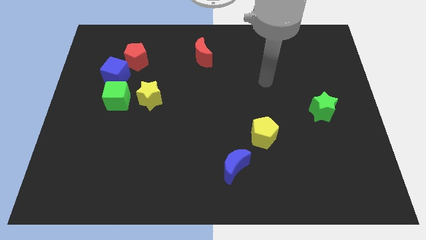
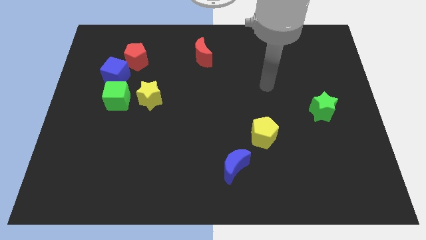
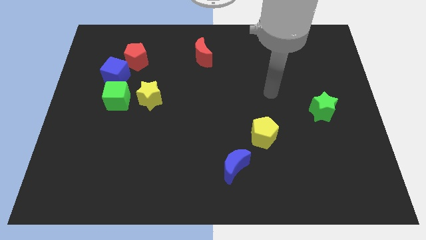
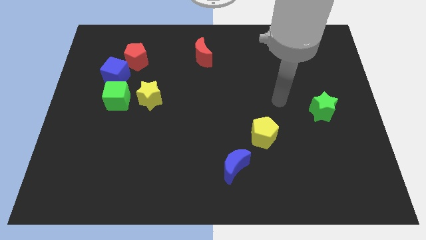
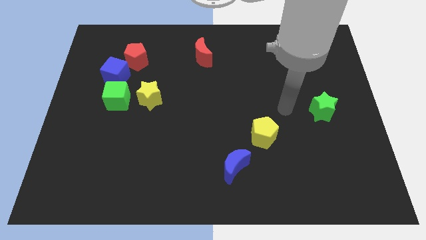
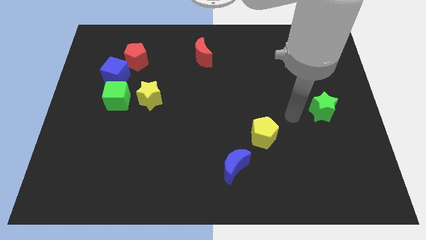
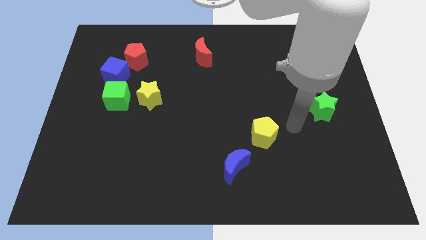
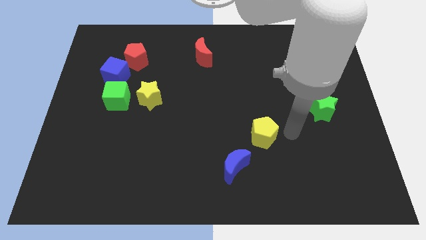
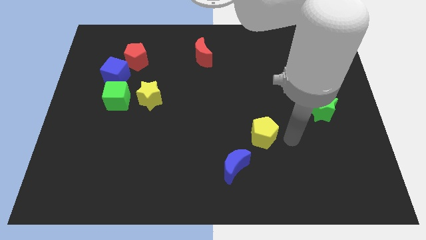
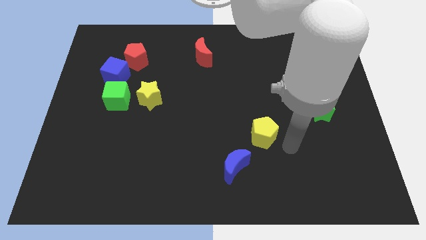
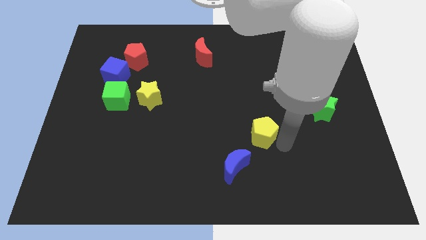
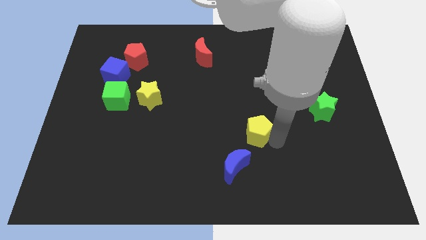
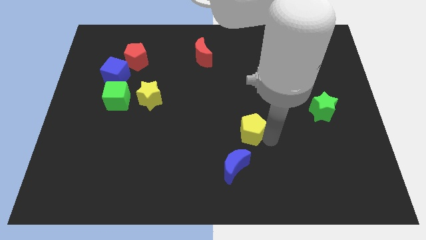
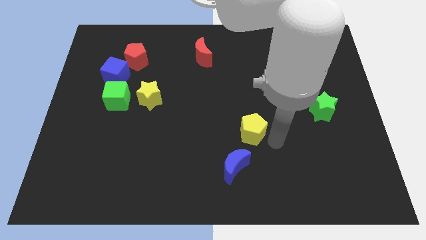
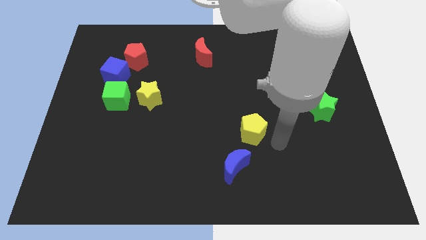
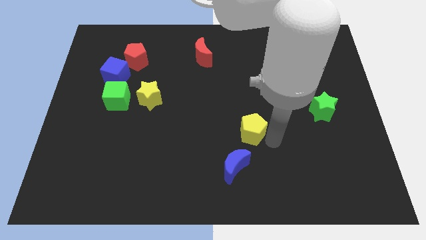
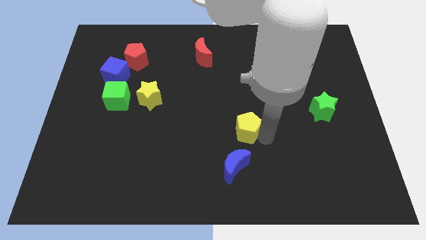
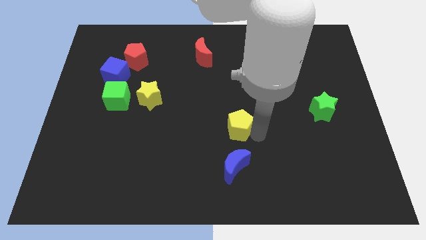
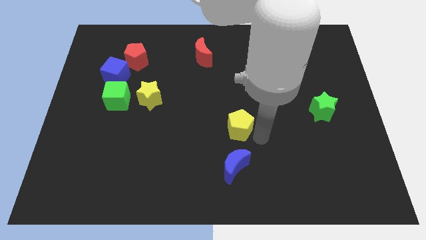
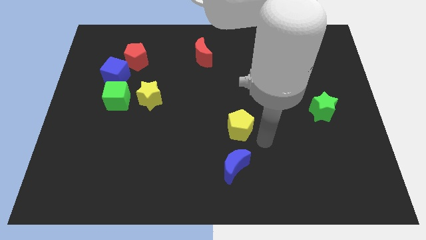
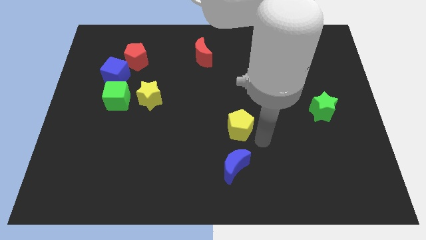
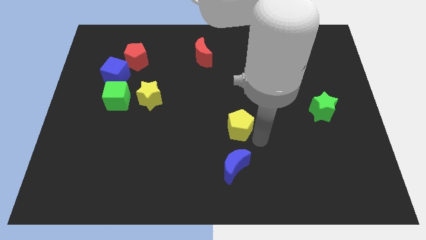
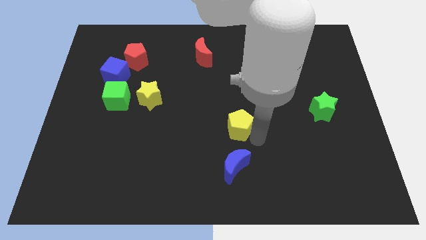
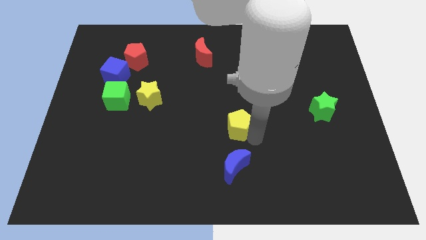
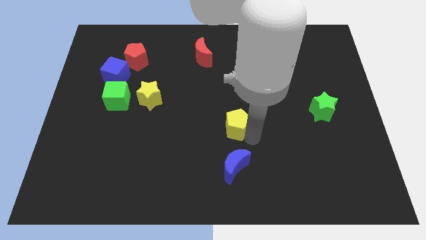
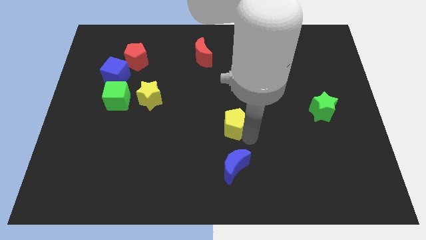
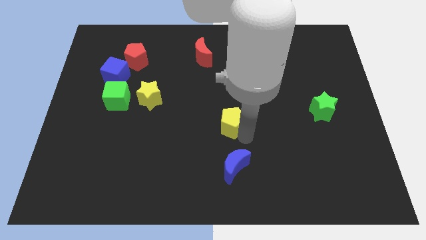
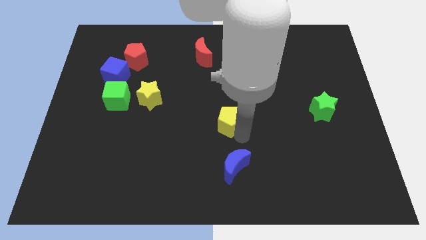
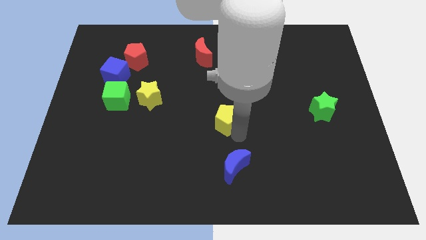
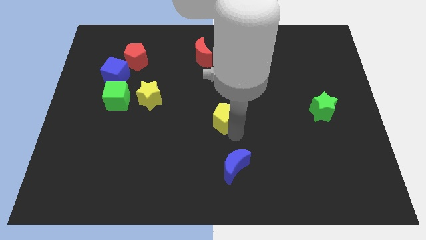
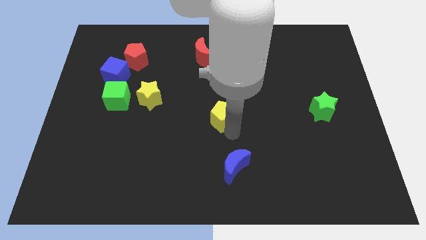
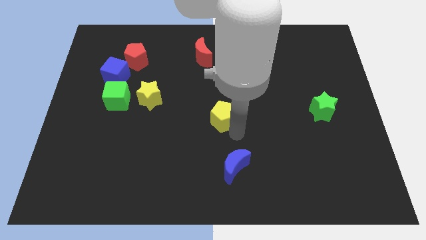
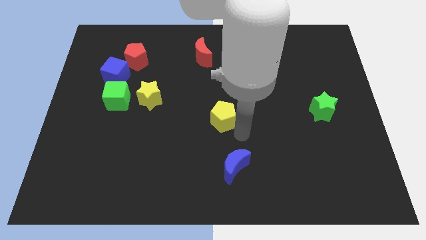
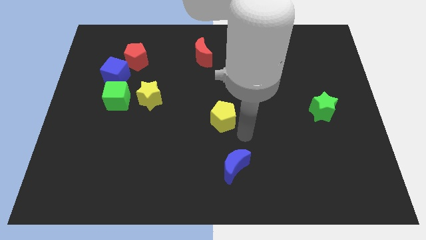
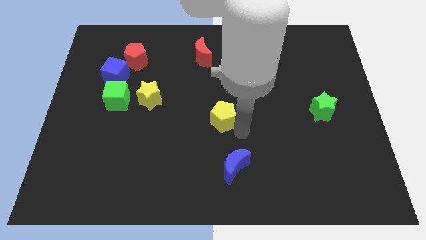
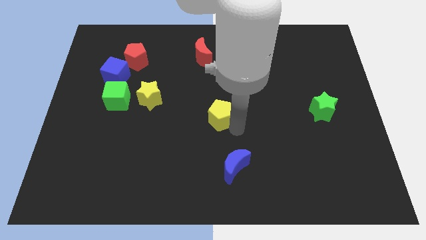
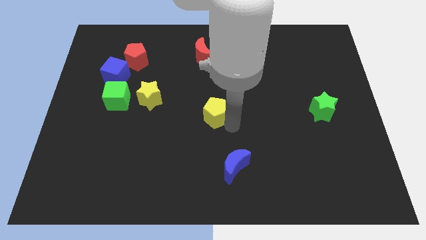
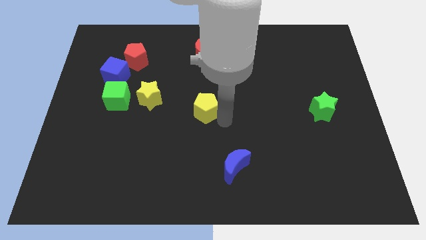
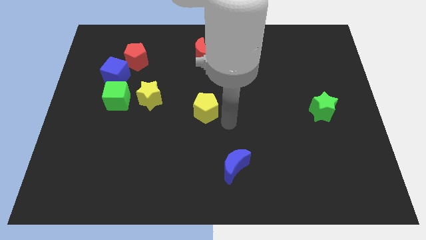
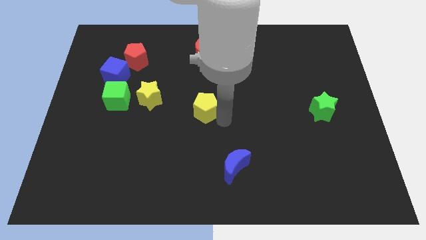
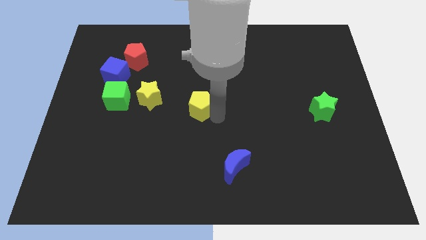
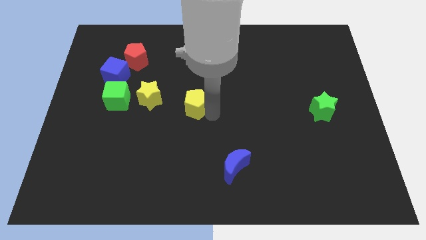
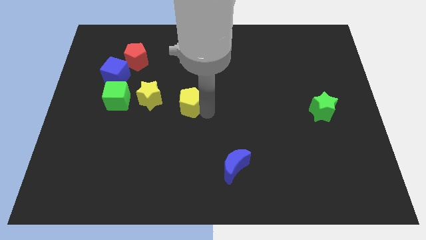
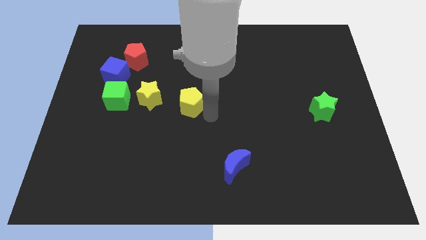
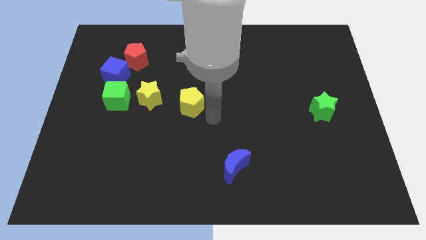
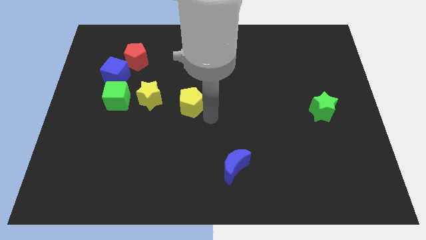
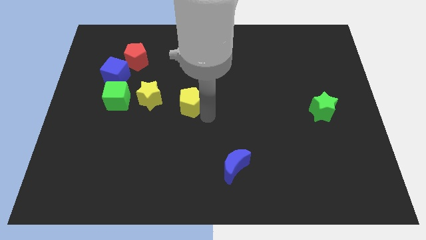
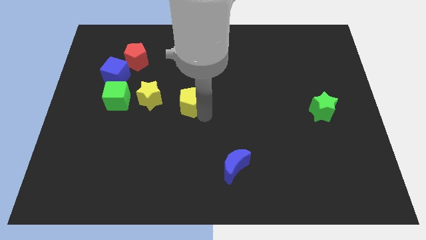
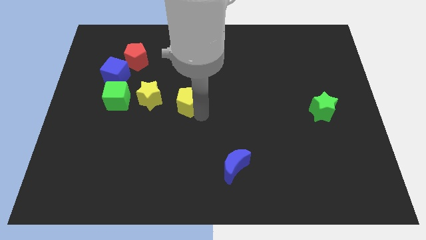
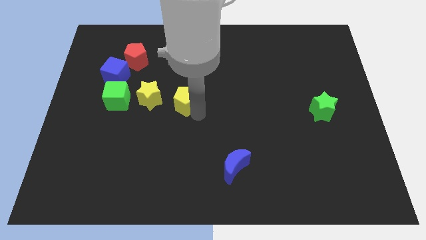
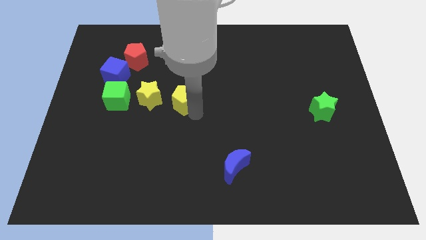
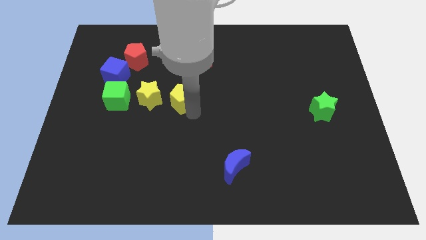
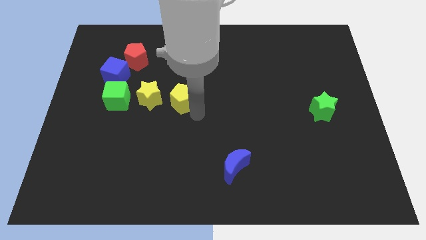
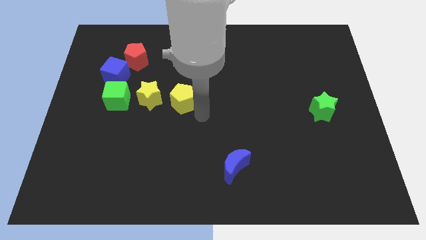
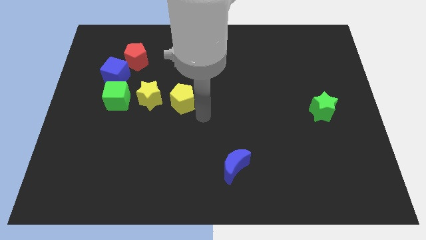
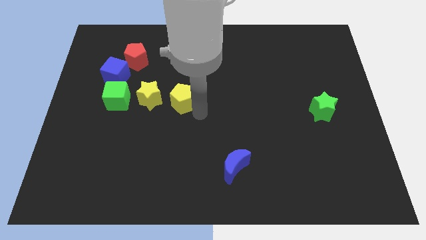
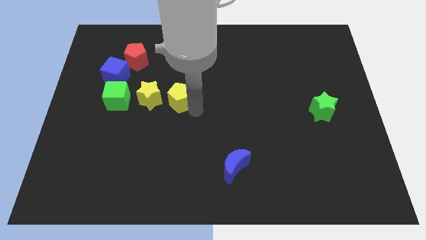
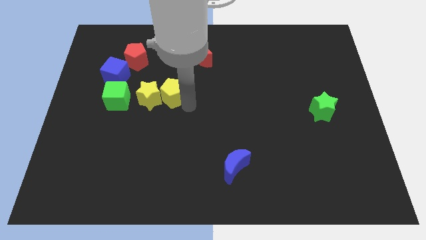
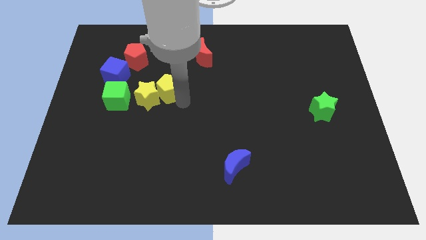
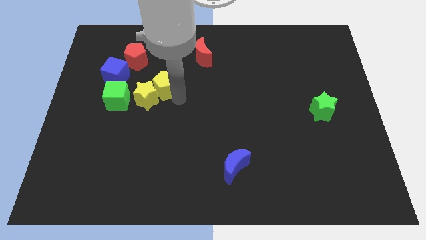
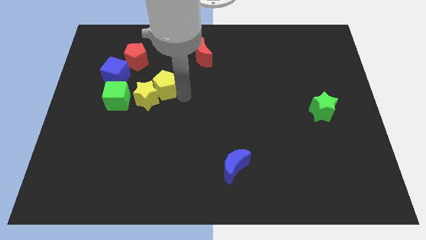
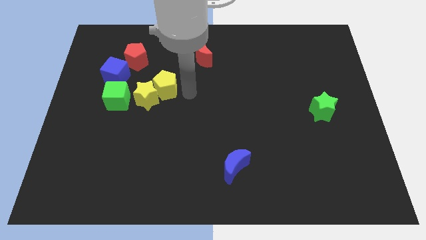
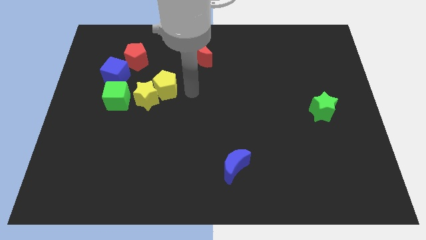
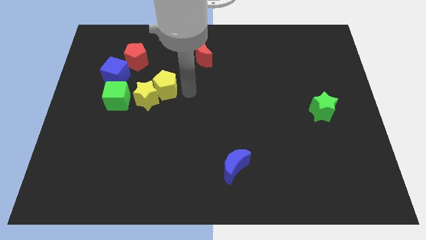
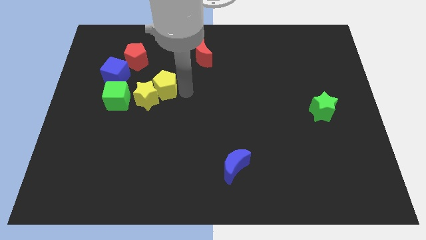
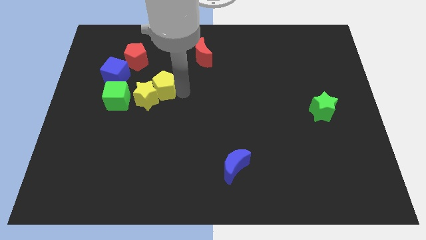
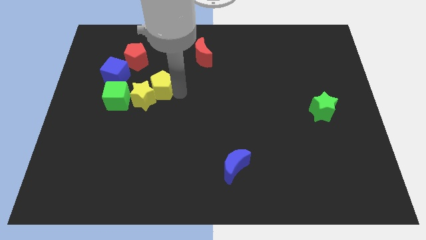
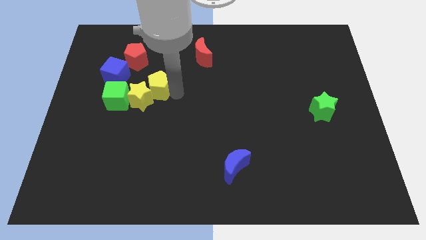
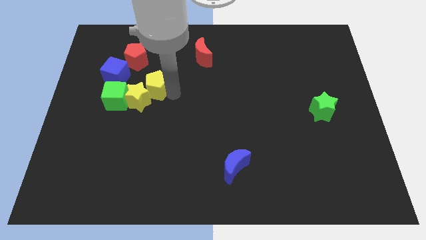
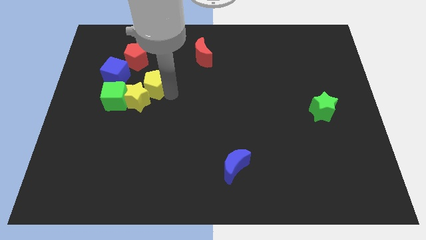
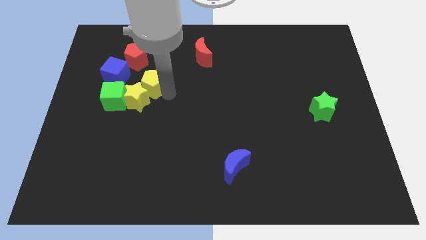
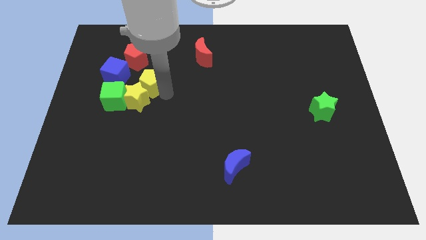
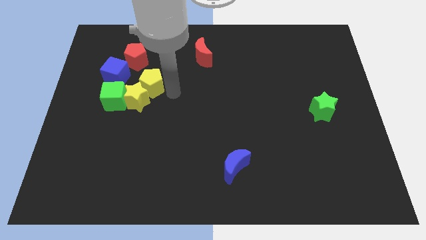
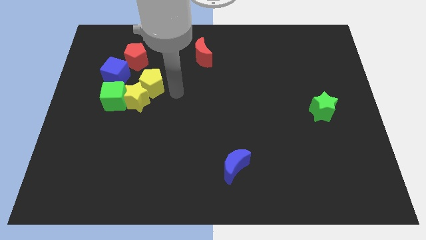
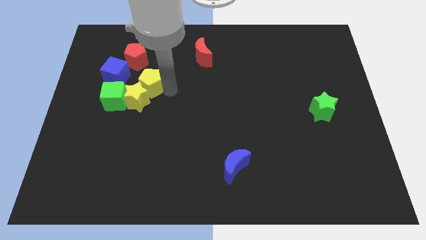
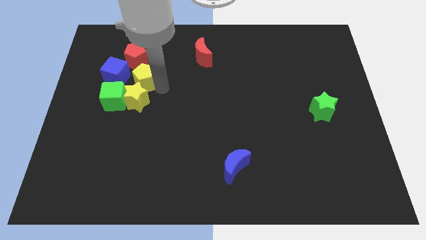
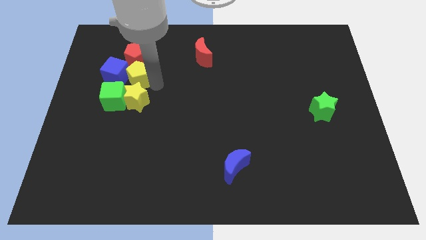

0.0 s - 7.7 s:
put the yellow pentagon next to the blue cube
